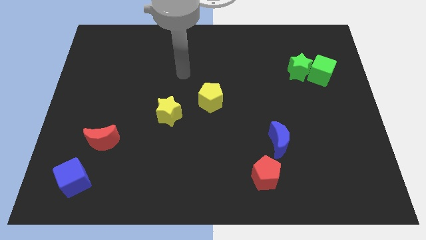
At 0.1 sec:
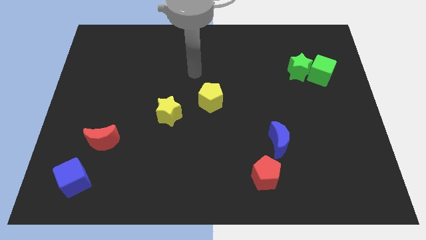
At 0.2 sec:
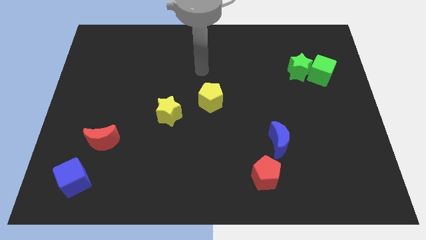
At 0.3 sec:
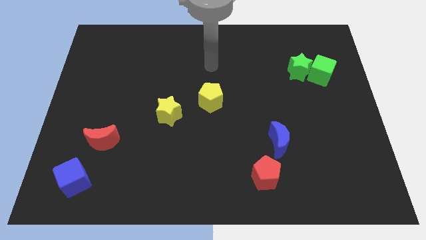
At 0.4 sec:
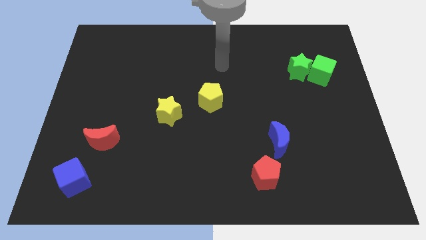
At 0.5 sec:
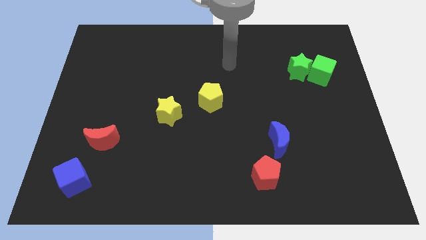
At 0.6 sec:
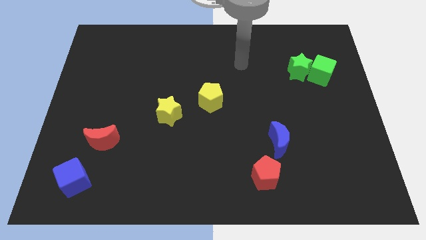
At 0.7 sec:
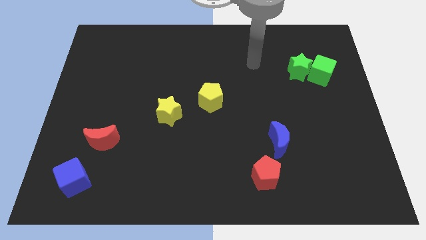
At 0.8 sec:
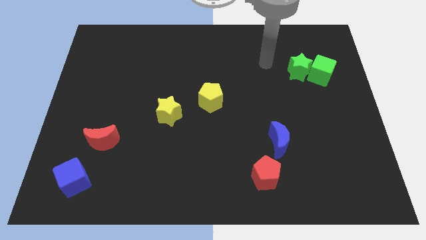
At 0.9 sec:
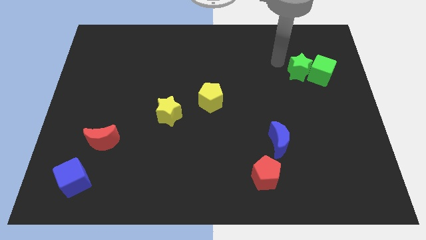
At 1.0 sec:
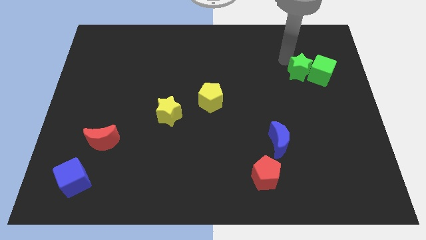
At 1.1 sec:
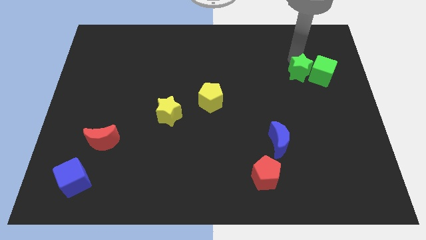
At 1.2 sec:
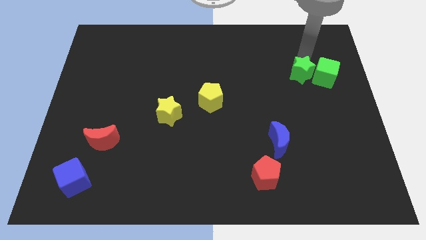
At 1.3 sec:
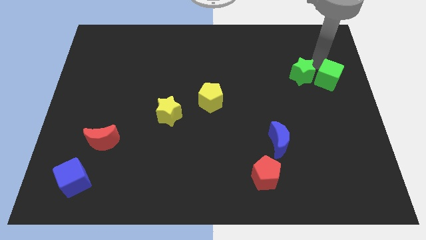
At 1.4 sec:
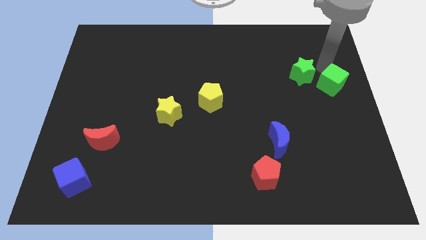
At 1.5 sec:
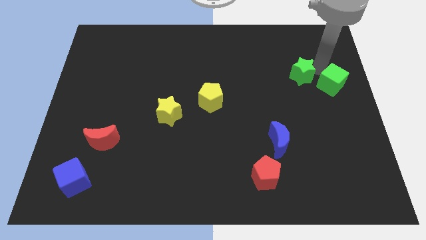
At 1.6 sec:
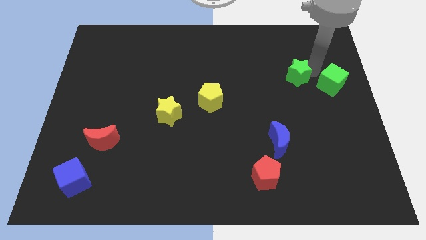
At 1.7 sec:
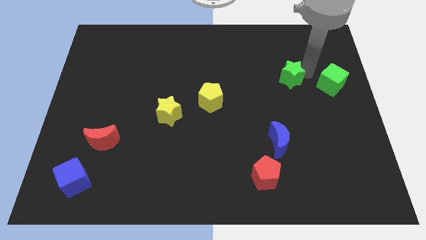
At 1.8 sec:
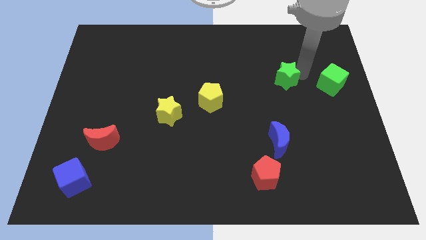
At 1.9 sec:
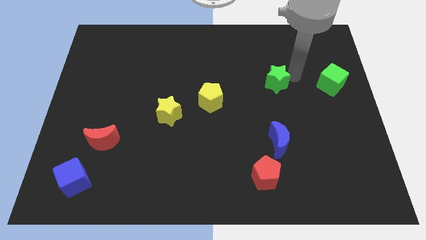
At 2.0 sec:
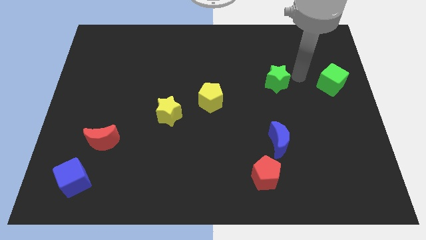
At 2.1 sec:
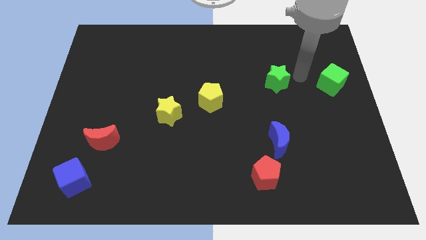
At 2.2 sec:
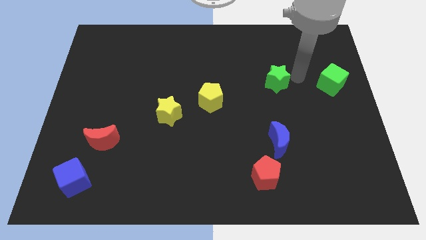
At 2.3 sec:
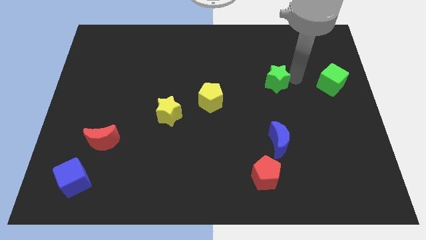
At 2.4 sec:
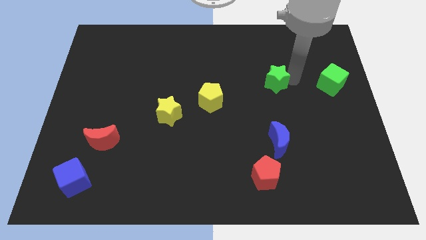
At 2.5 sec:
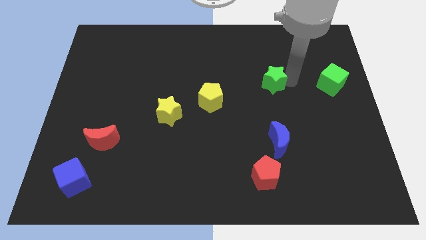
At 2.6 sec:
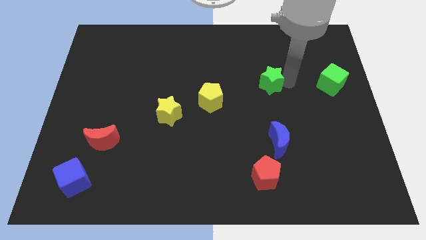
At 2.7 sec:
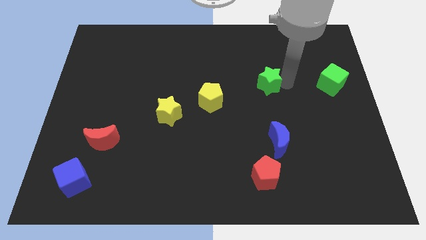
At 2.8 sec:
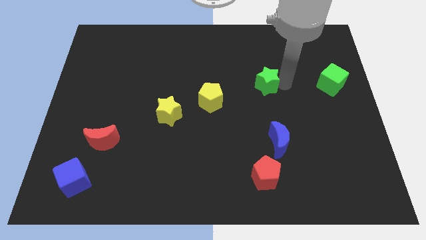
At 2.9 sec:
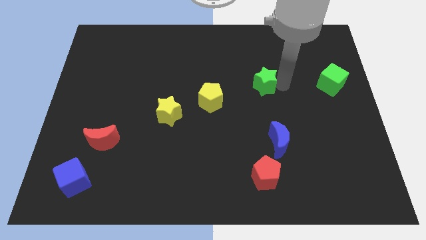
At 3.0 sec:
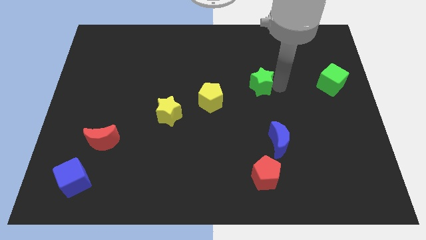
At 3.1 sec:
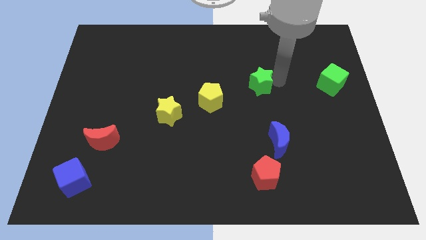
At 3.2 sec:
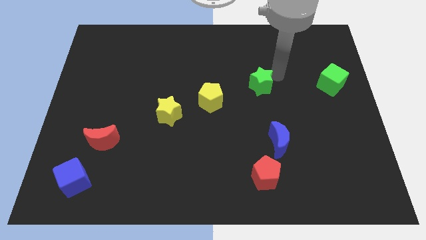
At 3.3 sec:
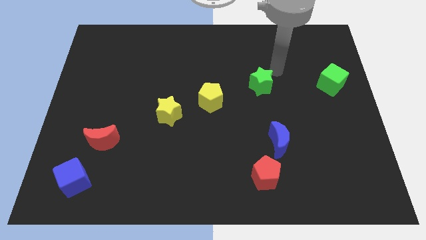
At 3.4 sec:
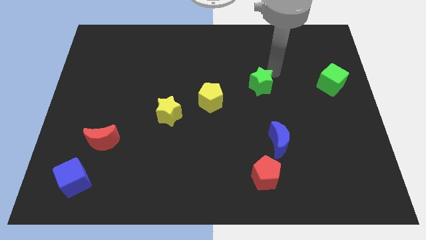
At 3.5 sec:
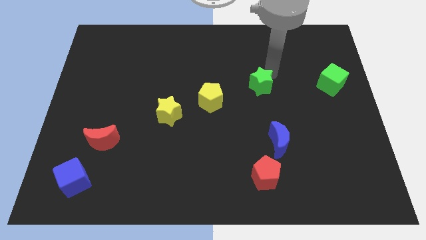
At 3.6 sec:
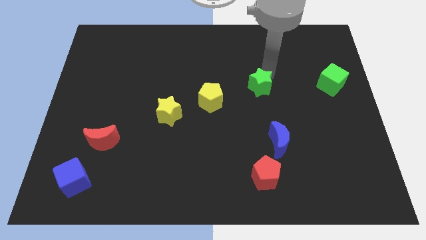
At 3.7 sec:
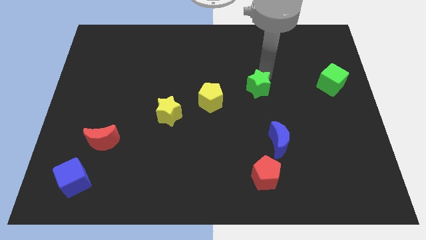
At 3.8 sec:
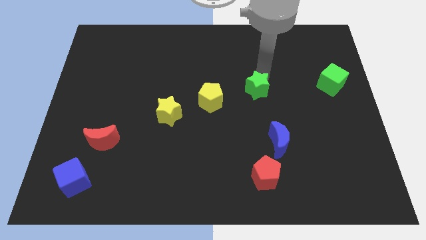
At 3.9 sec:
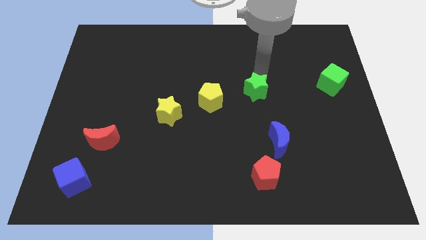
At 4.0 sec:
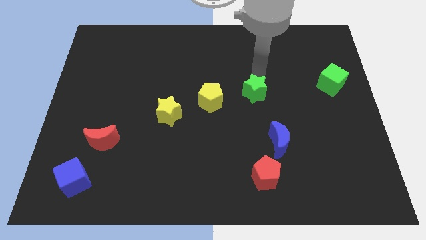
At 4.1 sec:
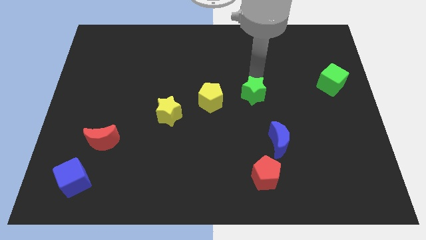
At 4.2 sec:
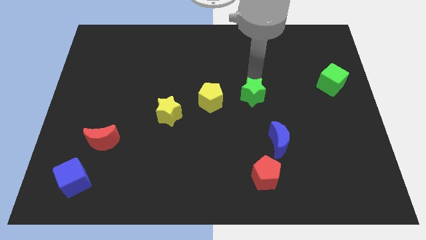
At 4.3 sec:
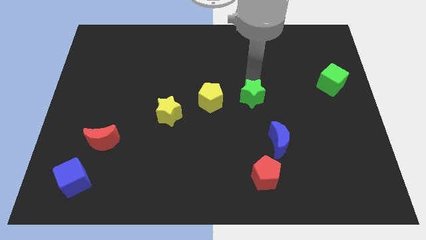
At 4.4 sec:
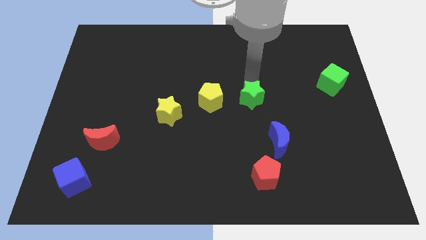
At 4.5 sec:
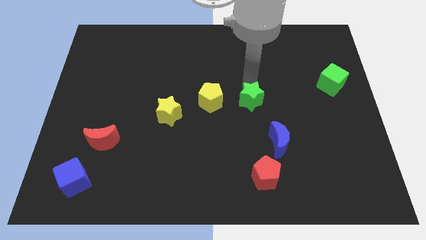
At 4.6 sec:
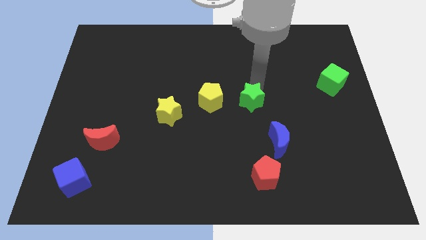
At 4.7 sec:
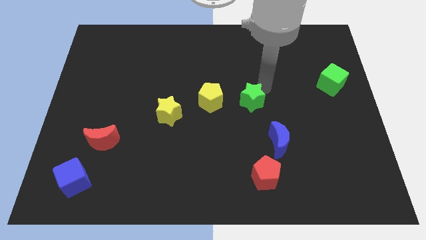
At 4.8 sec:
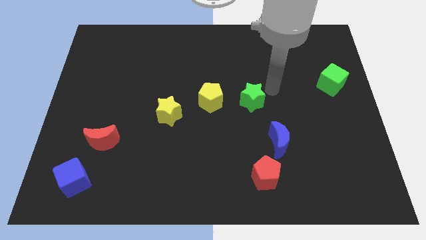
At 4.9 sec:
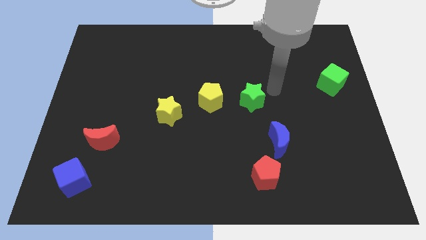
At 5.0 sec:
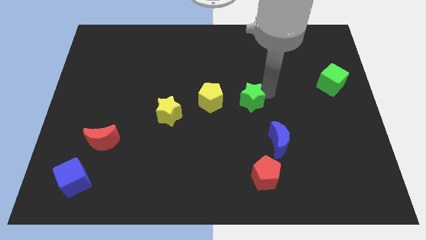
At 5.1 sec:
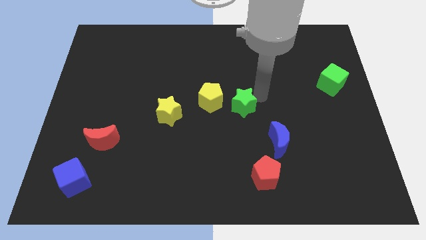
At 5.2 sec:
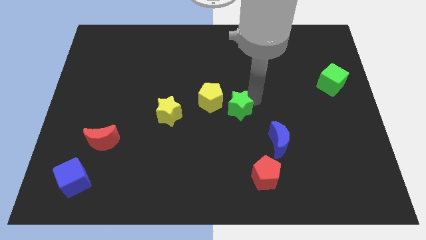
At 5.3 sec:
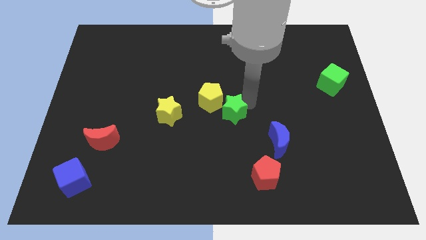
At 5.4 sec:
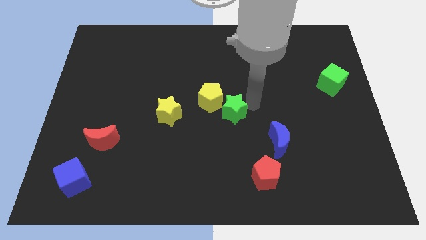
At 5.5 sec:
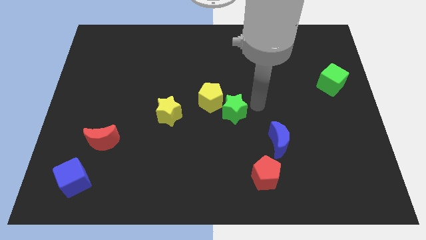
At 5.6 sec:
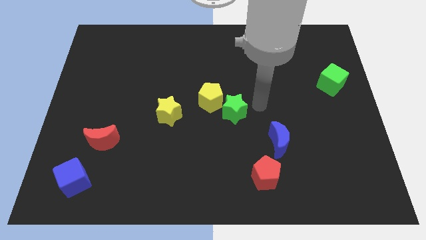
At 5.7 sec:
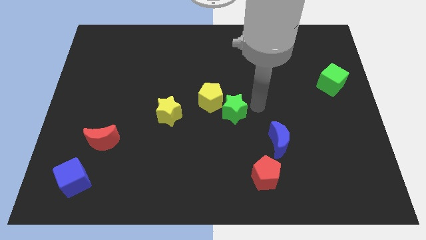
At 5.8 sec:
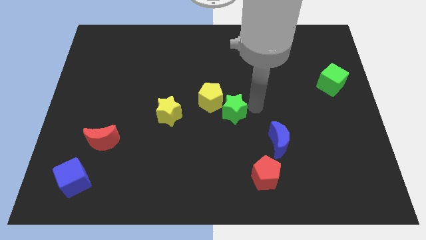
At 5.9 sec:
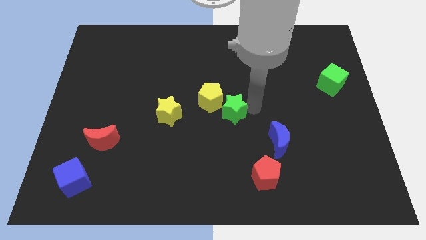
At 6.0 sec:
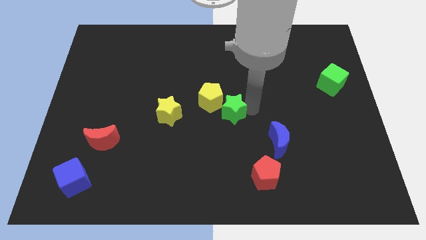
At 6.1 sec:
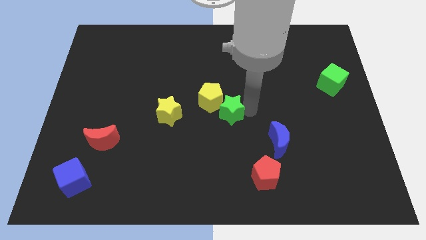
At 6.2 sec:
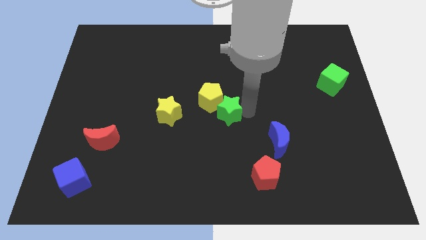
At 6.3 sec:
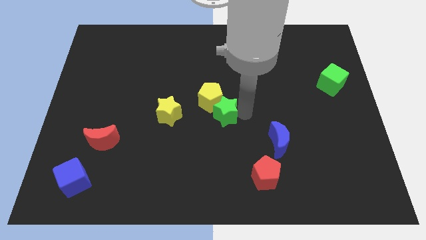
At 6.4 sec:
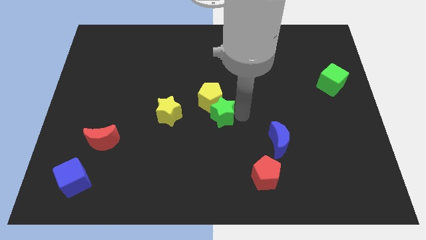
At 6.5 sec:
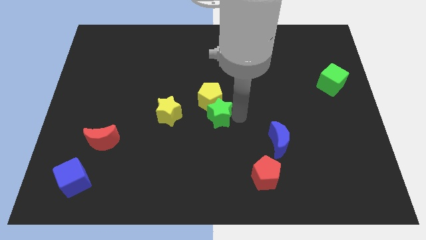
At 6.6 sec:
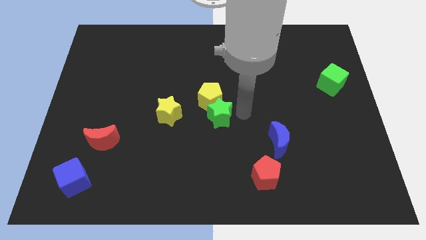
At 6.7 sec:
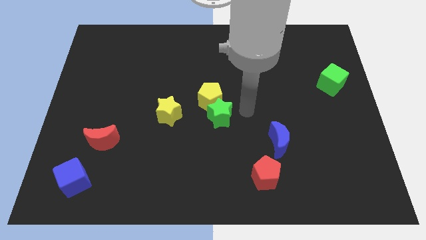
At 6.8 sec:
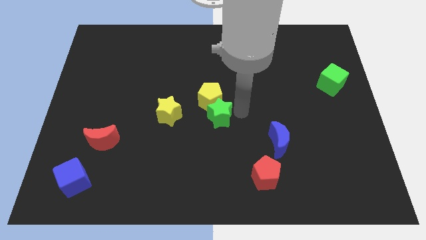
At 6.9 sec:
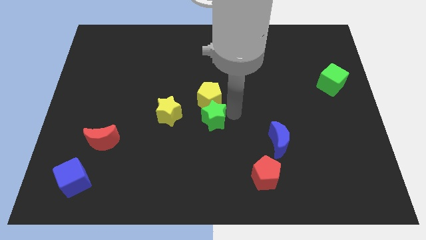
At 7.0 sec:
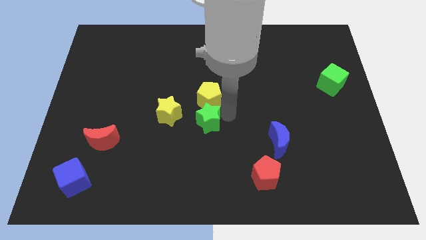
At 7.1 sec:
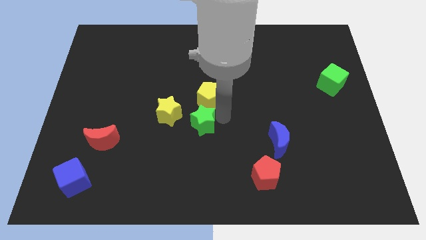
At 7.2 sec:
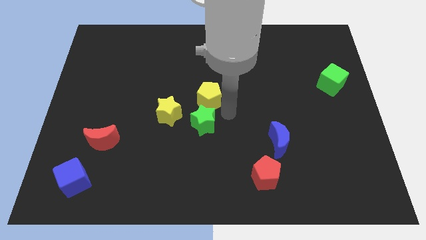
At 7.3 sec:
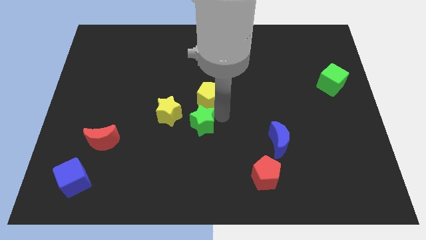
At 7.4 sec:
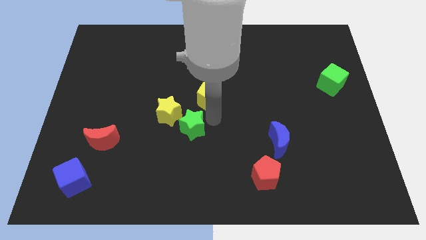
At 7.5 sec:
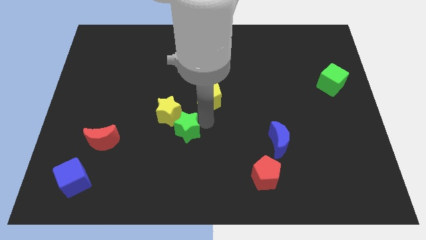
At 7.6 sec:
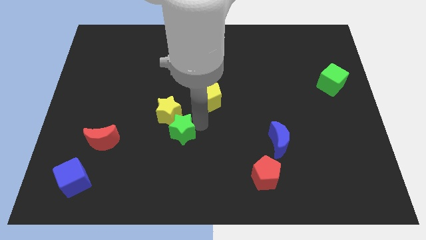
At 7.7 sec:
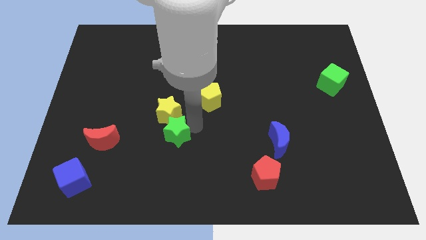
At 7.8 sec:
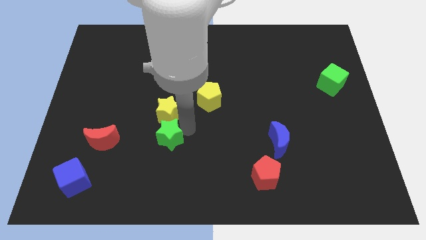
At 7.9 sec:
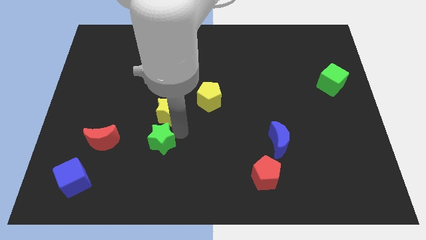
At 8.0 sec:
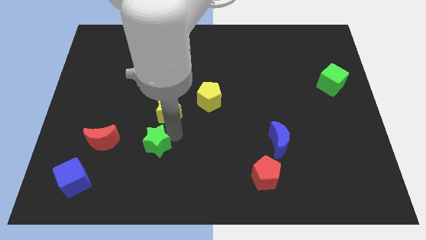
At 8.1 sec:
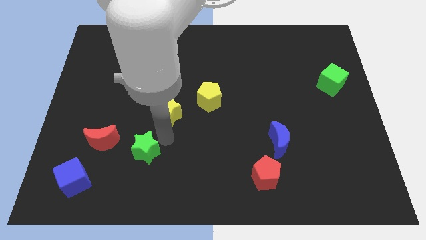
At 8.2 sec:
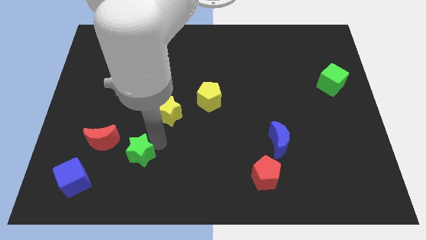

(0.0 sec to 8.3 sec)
put the green star to the bottom right of the red moon
